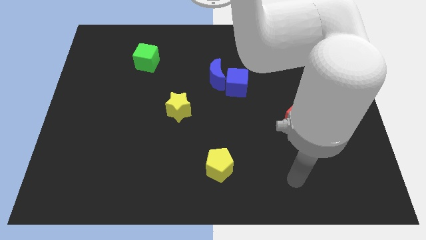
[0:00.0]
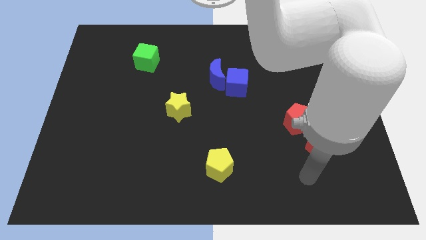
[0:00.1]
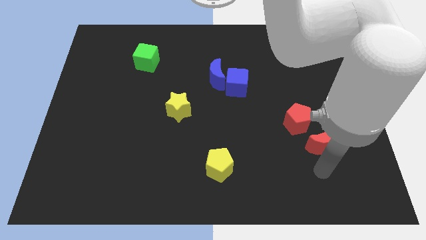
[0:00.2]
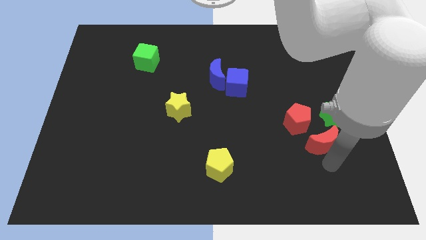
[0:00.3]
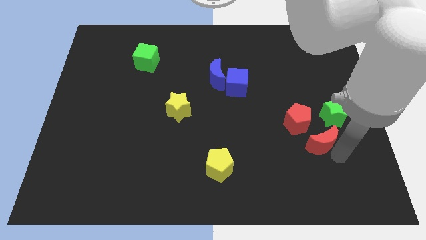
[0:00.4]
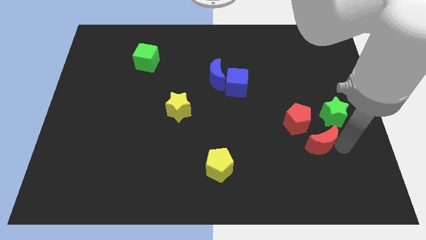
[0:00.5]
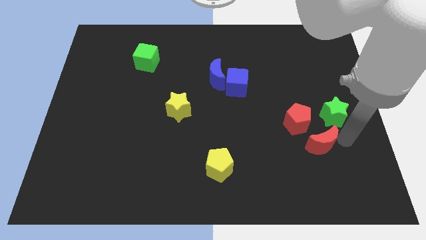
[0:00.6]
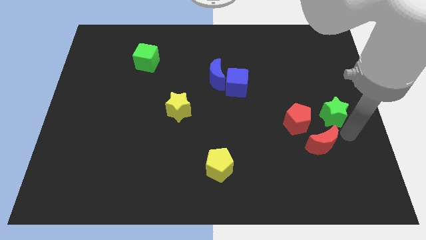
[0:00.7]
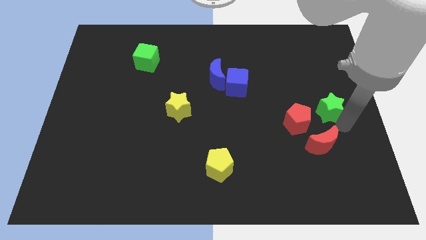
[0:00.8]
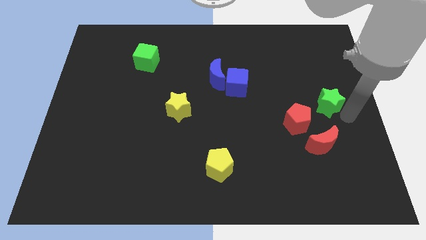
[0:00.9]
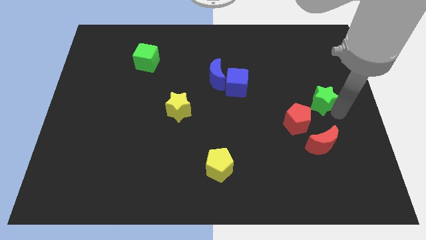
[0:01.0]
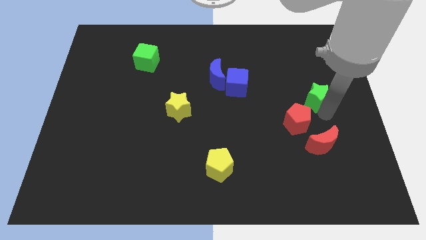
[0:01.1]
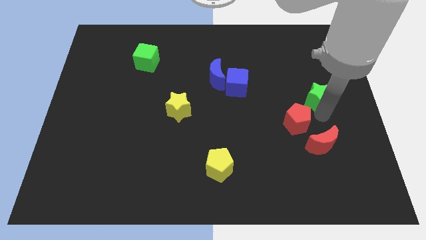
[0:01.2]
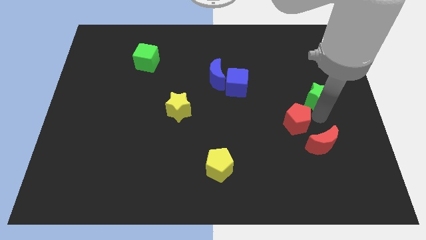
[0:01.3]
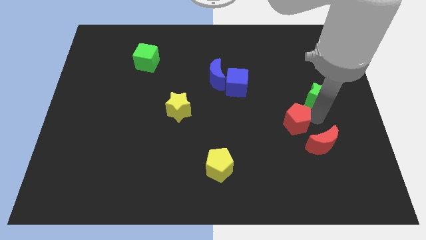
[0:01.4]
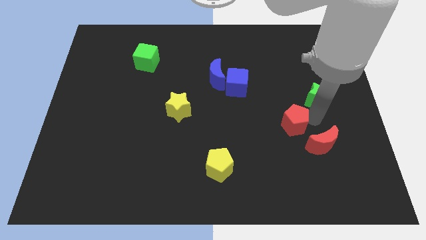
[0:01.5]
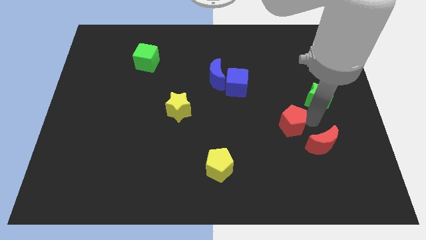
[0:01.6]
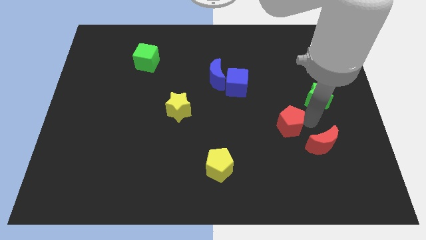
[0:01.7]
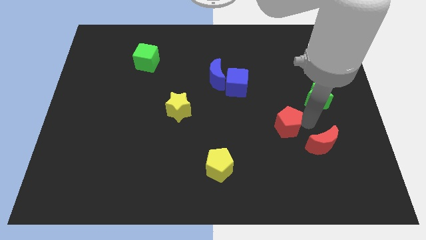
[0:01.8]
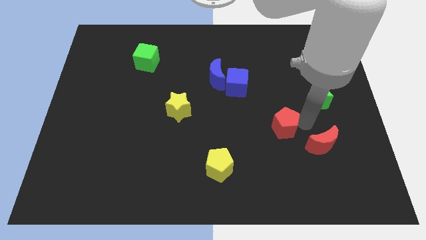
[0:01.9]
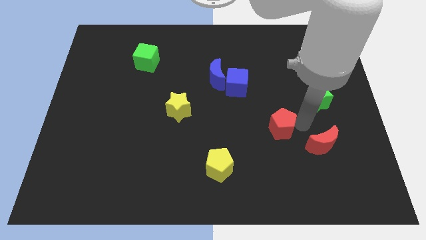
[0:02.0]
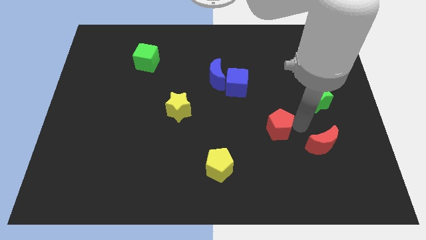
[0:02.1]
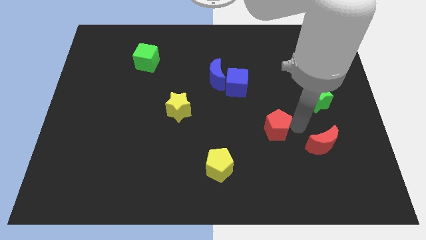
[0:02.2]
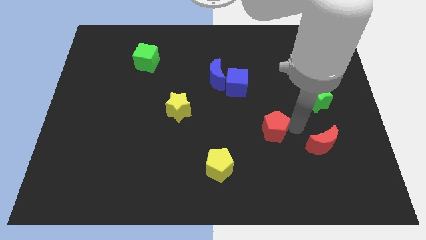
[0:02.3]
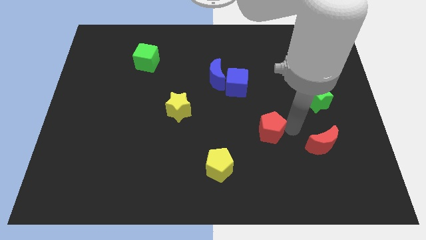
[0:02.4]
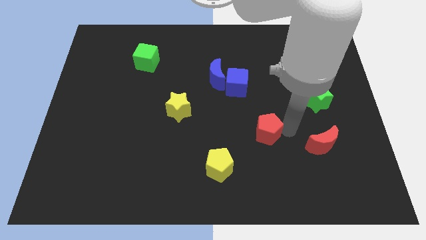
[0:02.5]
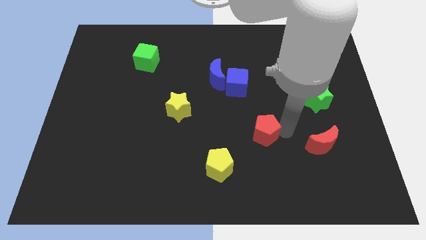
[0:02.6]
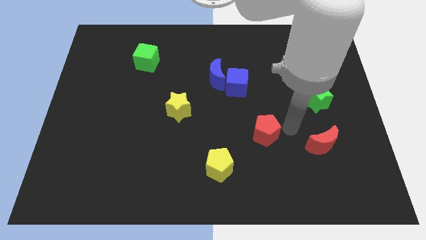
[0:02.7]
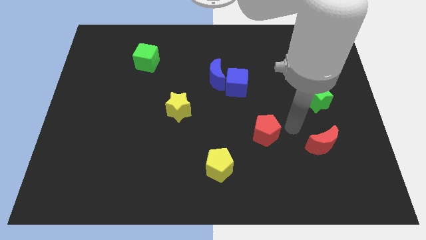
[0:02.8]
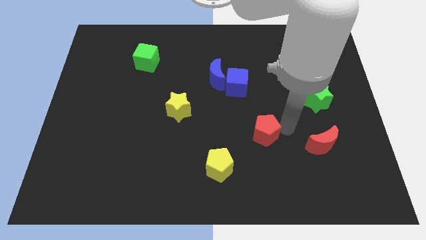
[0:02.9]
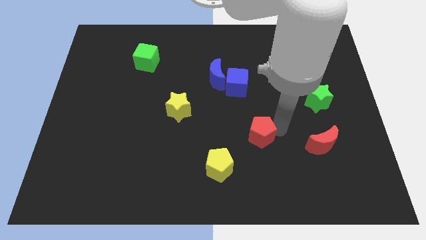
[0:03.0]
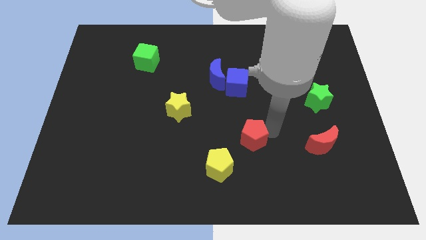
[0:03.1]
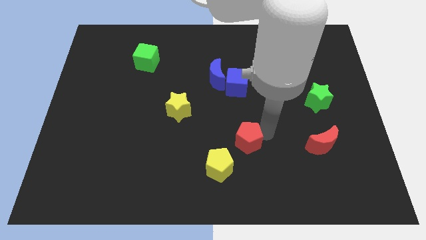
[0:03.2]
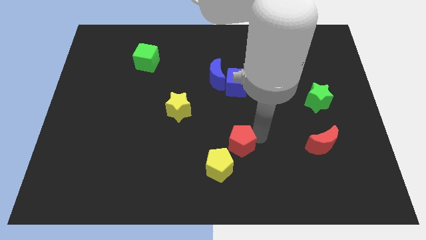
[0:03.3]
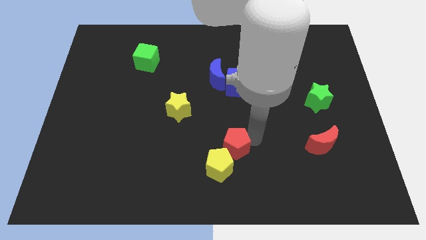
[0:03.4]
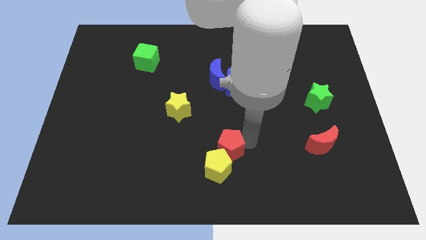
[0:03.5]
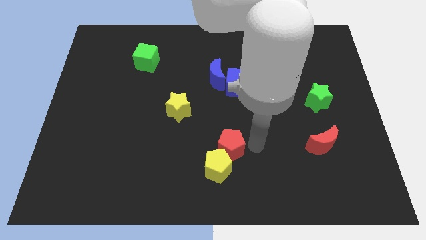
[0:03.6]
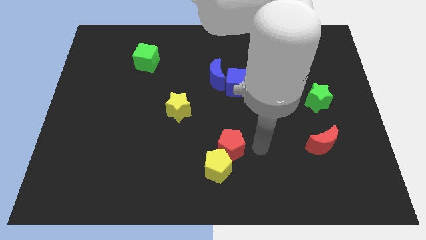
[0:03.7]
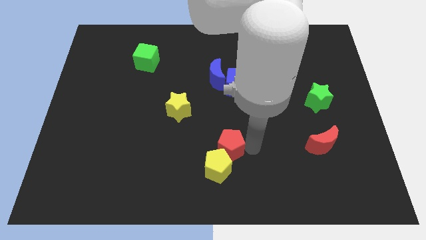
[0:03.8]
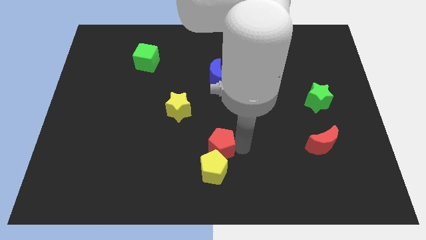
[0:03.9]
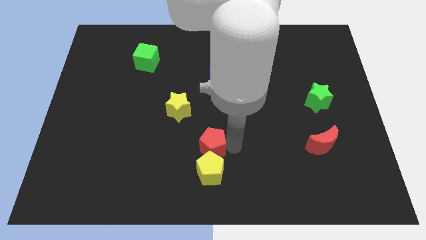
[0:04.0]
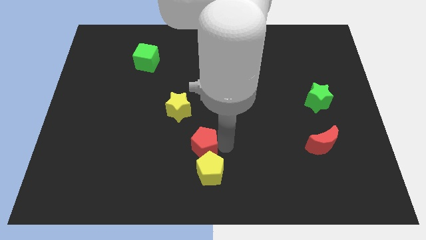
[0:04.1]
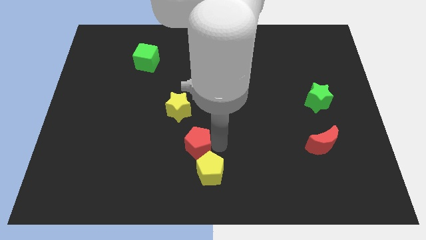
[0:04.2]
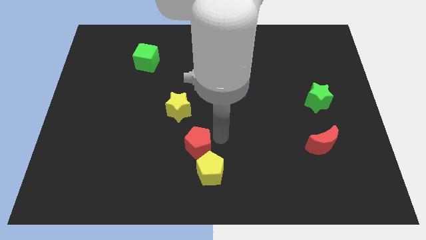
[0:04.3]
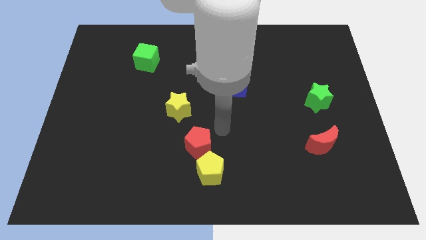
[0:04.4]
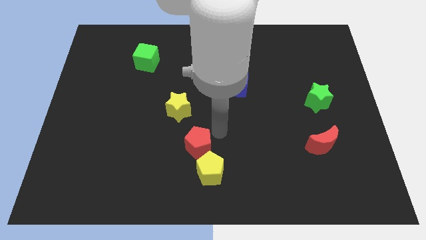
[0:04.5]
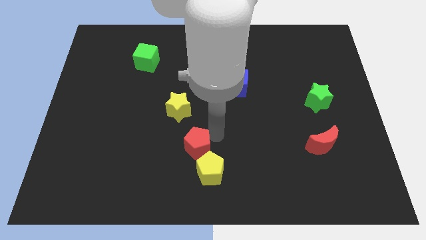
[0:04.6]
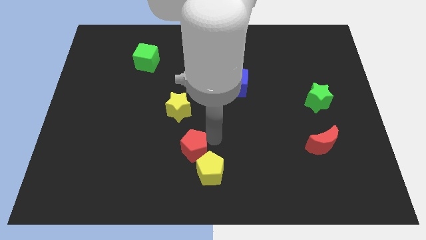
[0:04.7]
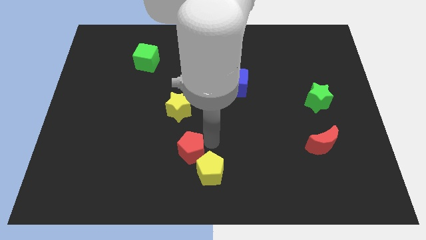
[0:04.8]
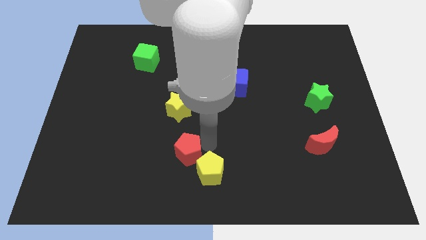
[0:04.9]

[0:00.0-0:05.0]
push the red pentagon to the left side of the yellow pentagon

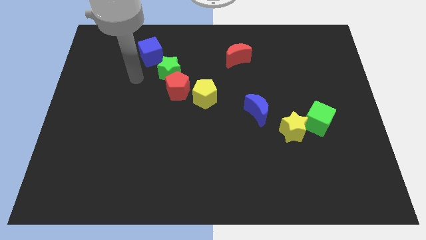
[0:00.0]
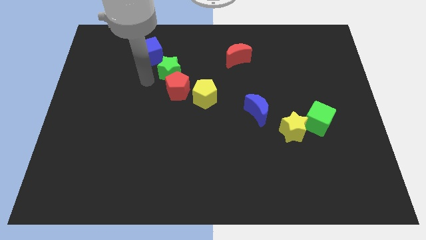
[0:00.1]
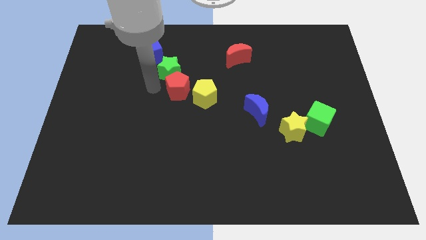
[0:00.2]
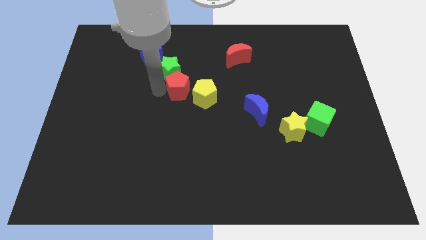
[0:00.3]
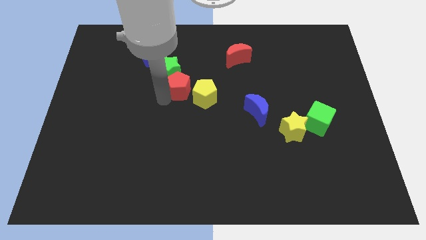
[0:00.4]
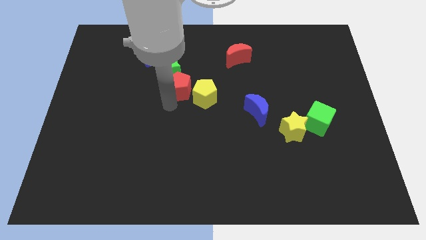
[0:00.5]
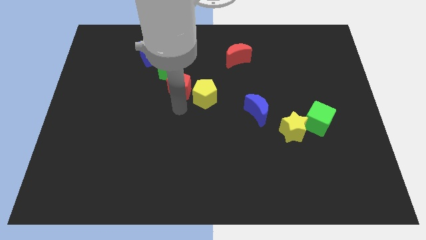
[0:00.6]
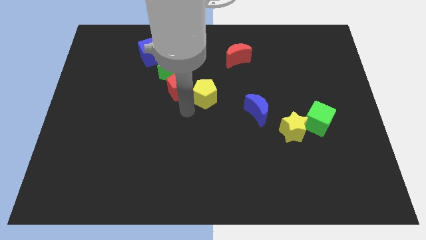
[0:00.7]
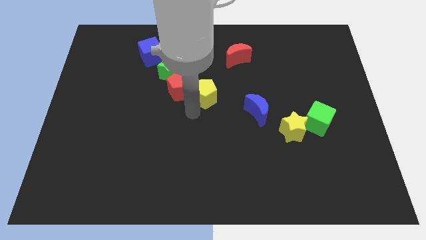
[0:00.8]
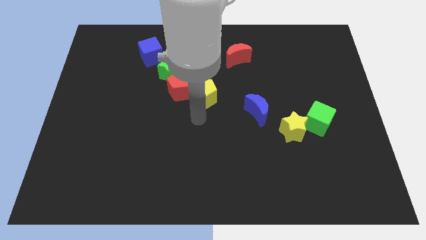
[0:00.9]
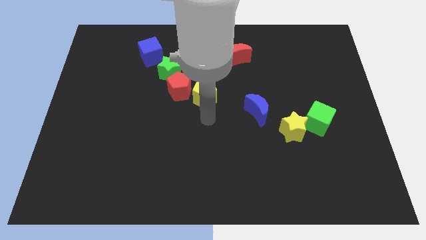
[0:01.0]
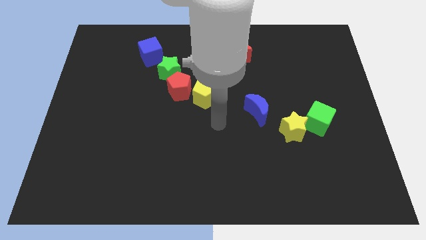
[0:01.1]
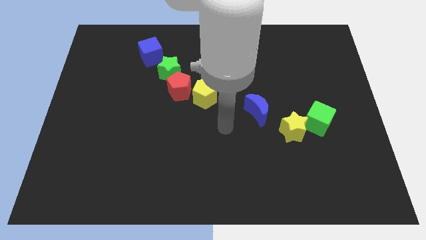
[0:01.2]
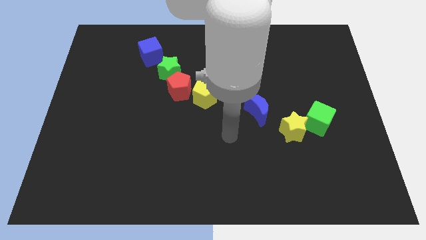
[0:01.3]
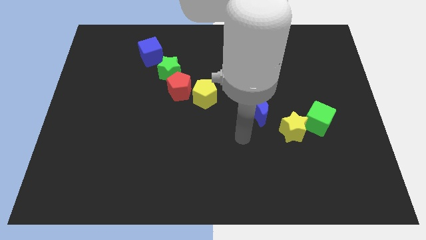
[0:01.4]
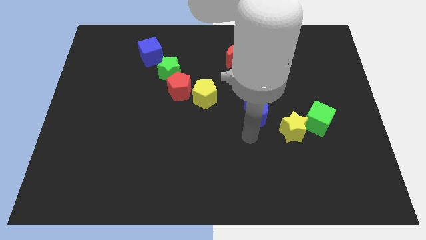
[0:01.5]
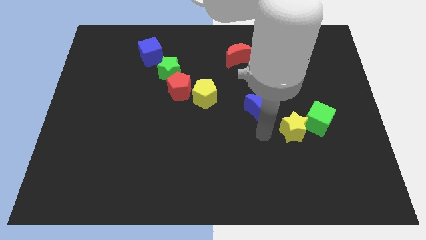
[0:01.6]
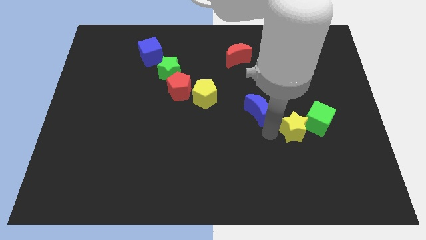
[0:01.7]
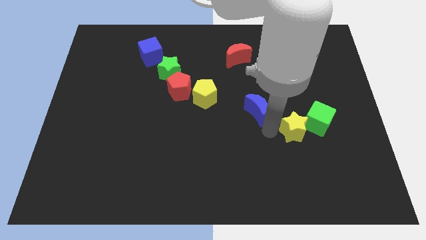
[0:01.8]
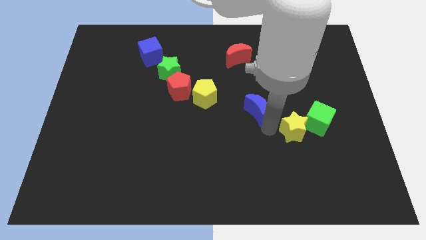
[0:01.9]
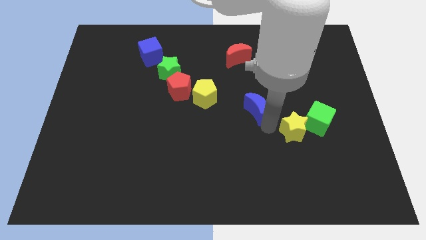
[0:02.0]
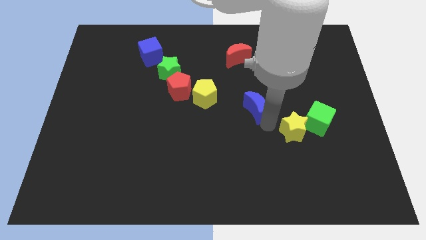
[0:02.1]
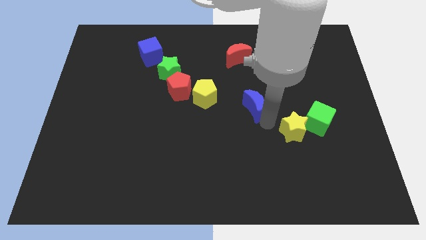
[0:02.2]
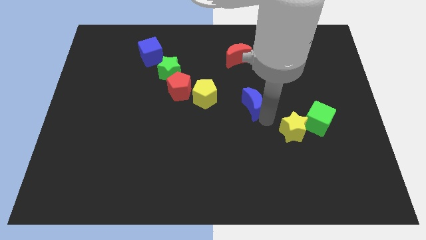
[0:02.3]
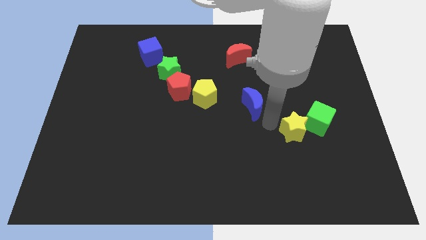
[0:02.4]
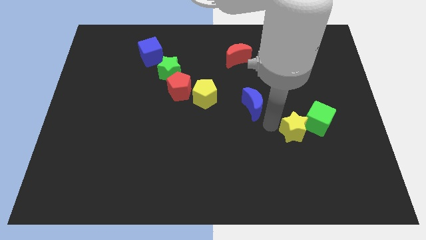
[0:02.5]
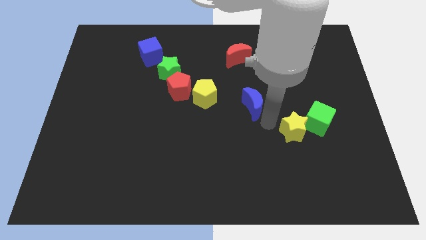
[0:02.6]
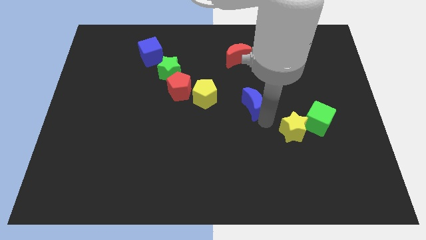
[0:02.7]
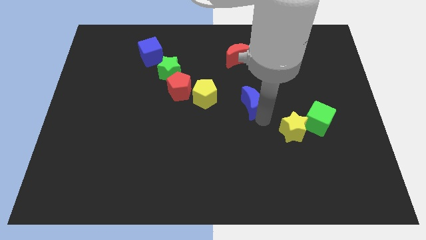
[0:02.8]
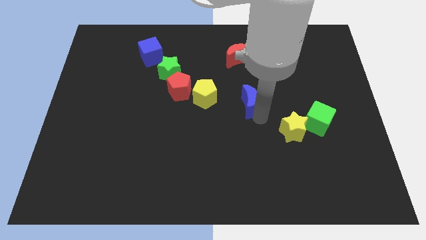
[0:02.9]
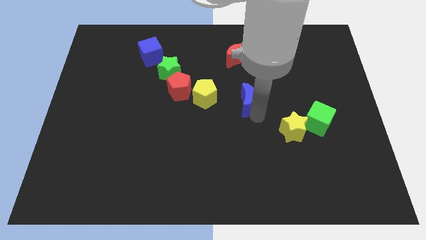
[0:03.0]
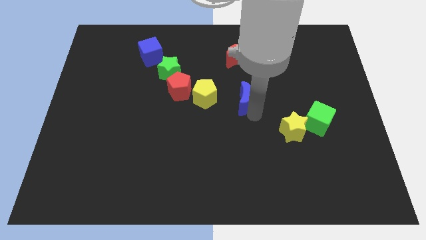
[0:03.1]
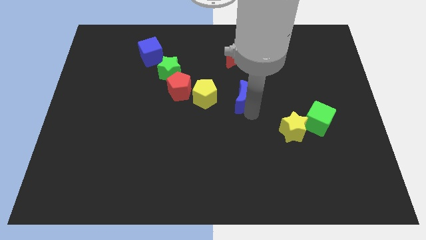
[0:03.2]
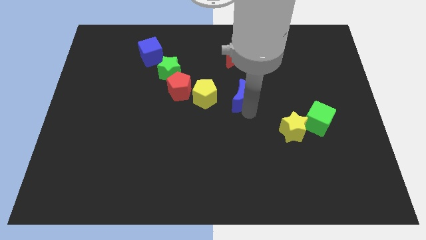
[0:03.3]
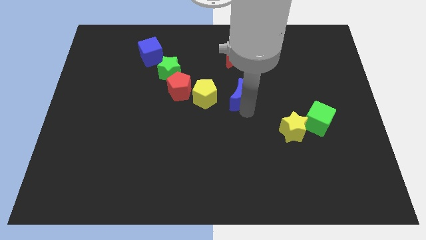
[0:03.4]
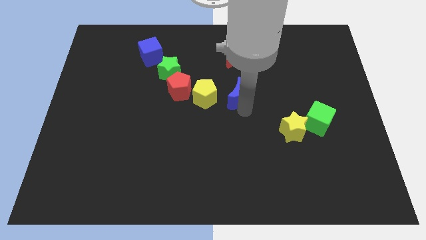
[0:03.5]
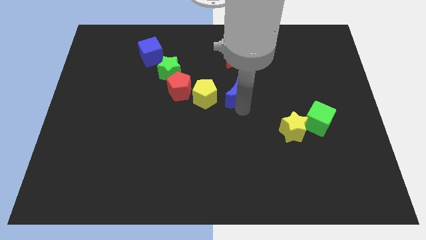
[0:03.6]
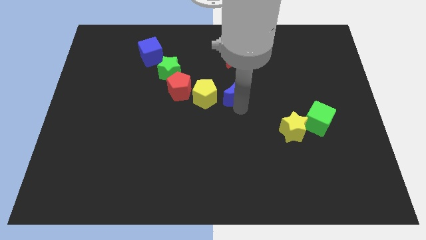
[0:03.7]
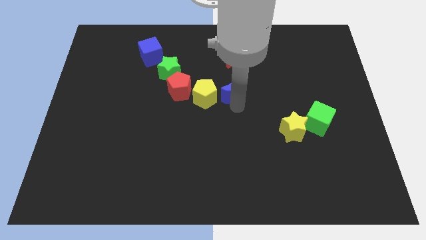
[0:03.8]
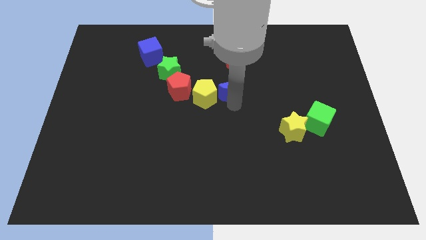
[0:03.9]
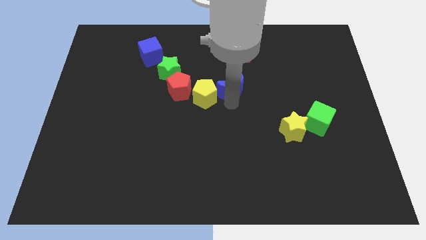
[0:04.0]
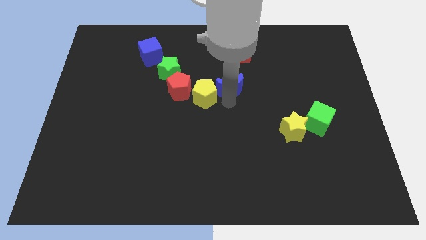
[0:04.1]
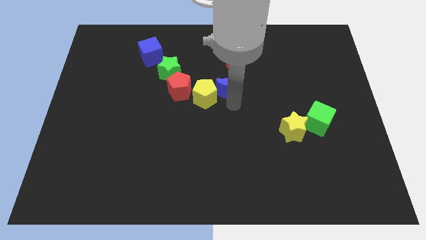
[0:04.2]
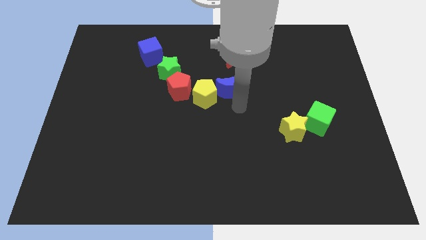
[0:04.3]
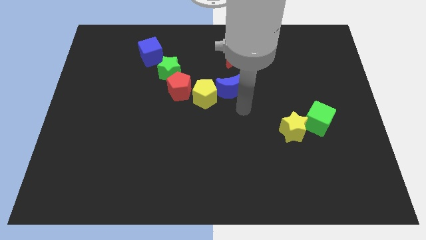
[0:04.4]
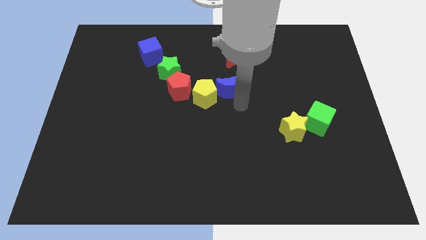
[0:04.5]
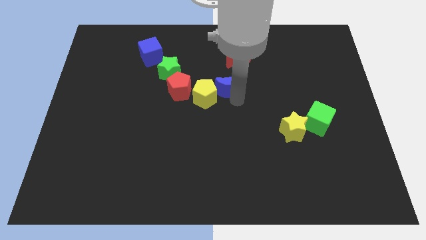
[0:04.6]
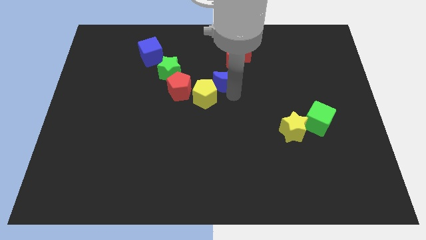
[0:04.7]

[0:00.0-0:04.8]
slide the blue moon diagonally down and to the left of the red moon
